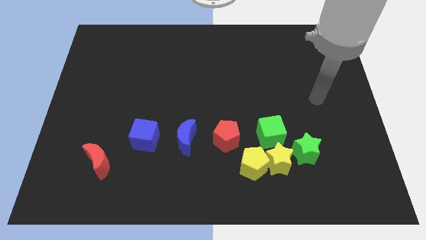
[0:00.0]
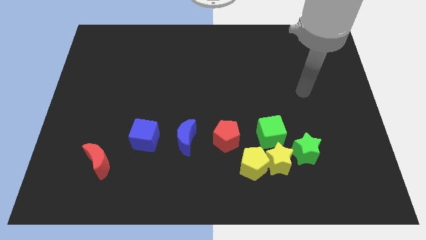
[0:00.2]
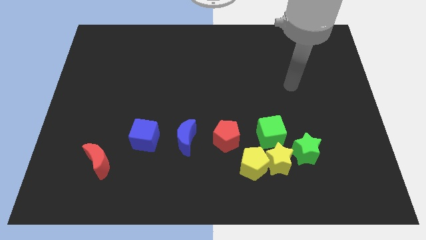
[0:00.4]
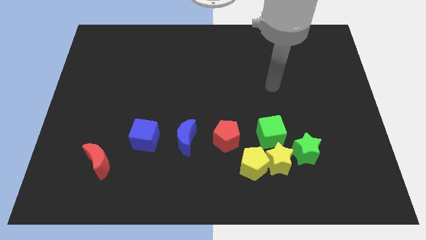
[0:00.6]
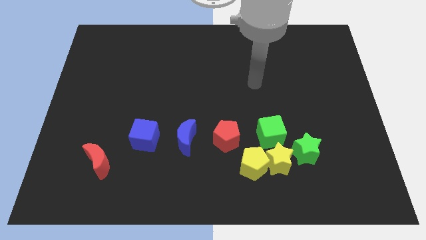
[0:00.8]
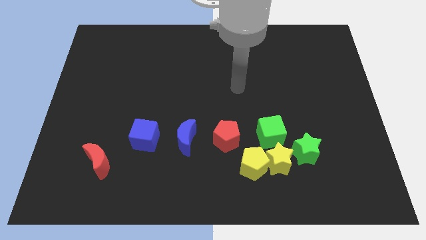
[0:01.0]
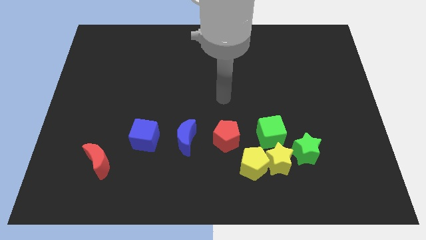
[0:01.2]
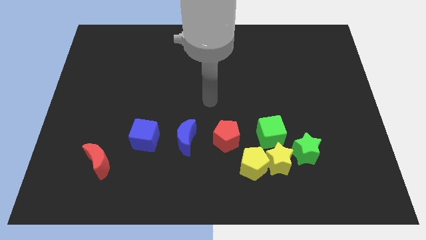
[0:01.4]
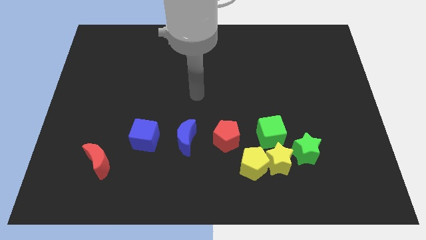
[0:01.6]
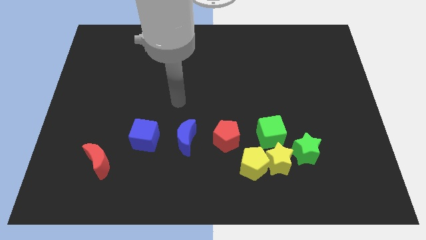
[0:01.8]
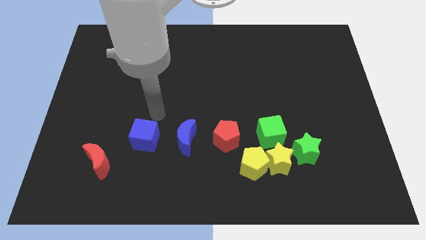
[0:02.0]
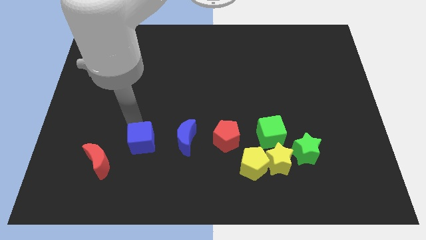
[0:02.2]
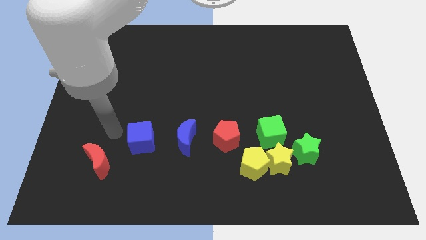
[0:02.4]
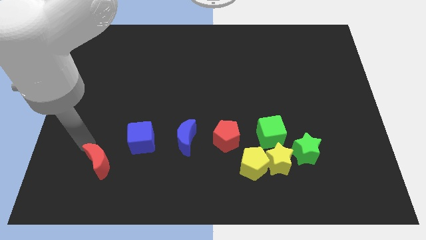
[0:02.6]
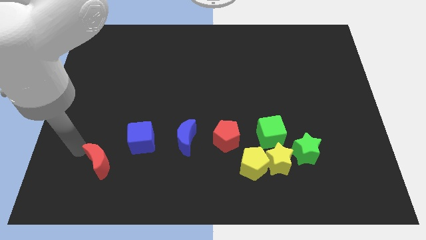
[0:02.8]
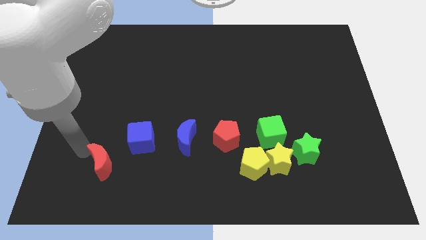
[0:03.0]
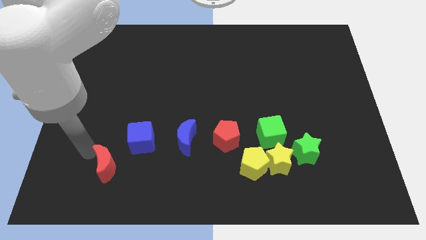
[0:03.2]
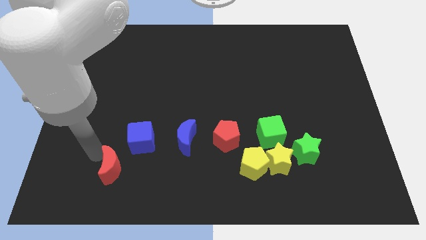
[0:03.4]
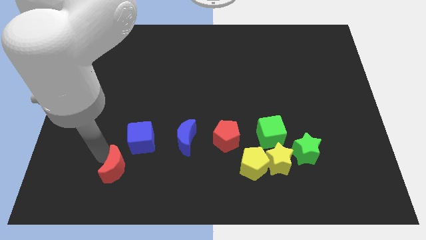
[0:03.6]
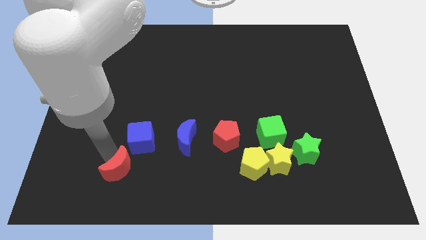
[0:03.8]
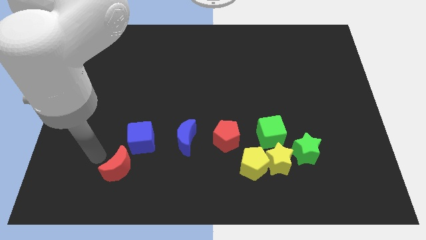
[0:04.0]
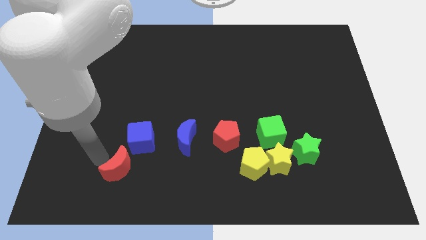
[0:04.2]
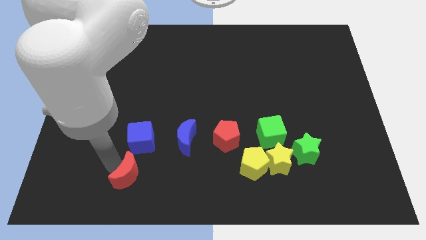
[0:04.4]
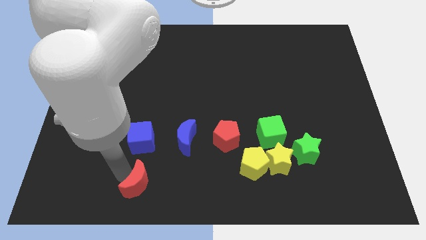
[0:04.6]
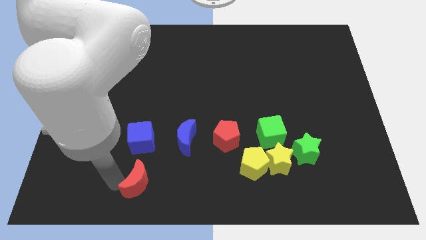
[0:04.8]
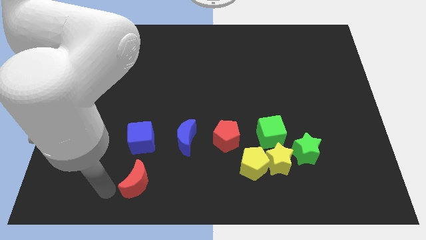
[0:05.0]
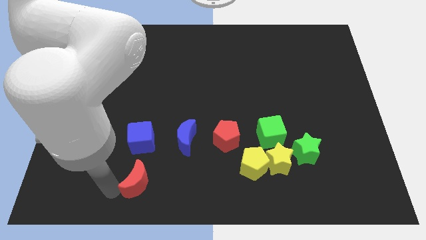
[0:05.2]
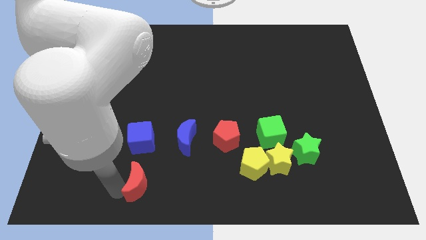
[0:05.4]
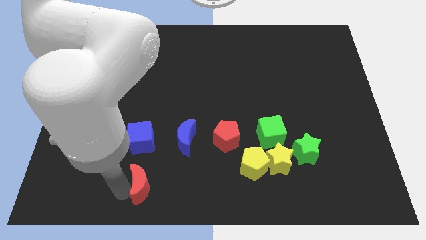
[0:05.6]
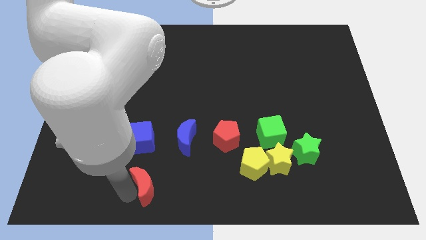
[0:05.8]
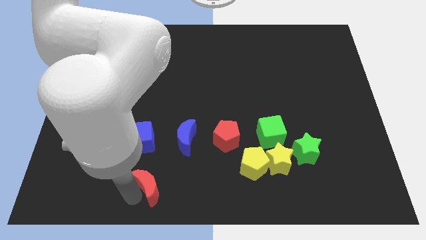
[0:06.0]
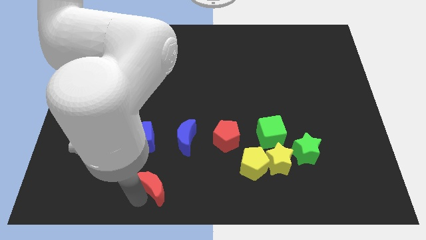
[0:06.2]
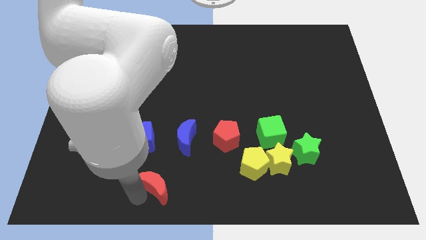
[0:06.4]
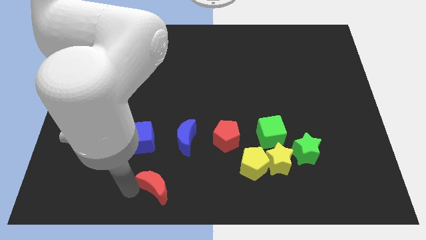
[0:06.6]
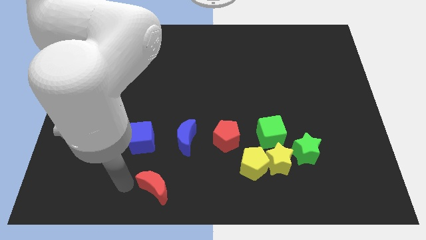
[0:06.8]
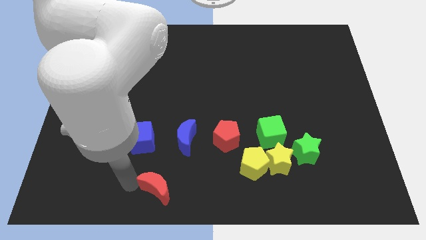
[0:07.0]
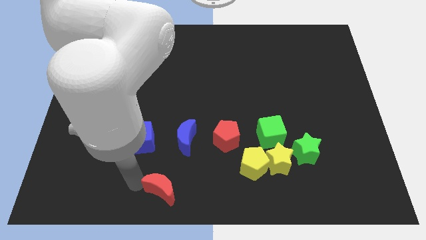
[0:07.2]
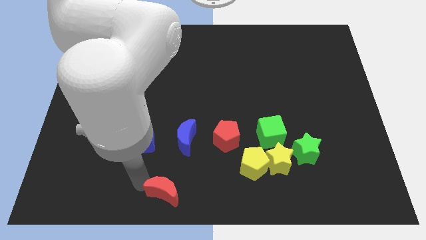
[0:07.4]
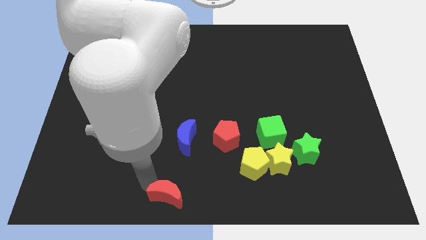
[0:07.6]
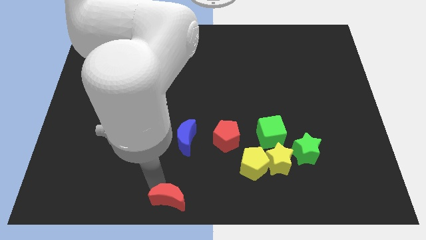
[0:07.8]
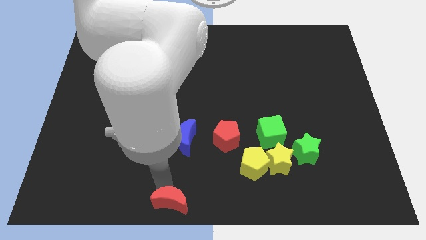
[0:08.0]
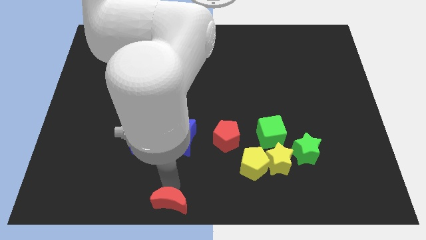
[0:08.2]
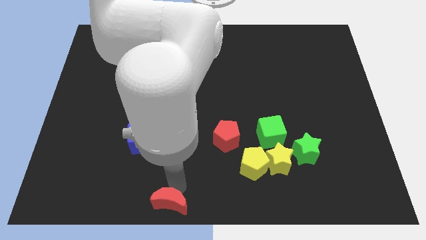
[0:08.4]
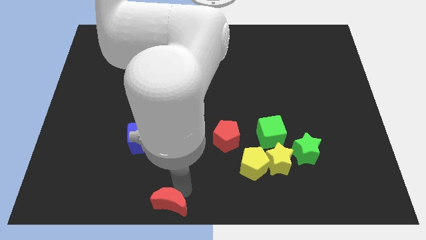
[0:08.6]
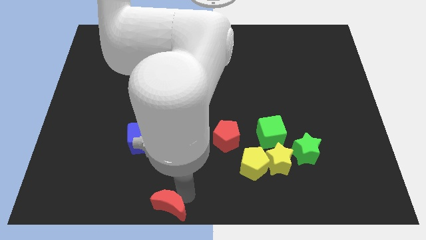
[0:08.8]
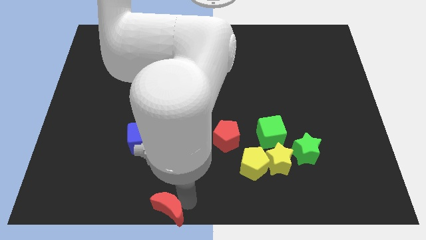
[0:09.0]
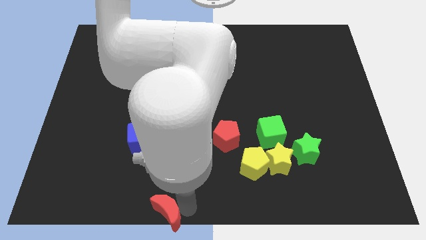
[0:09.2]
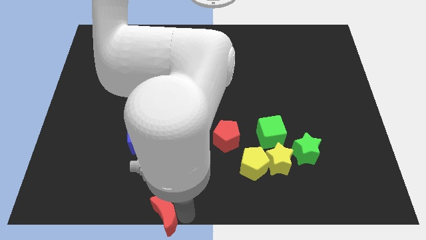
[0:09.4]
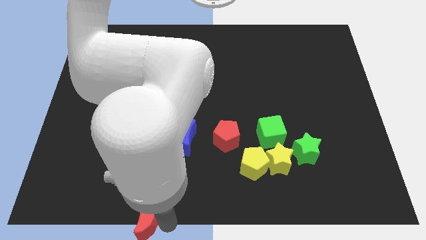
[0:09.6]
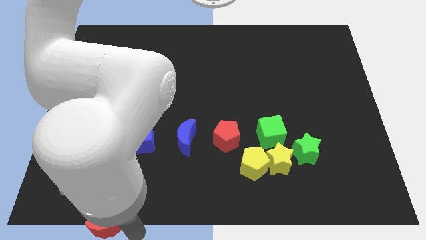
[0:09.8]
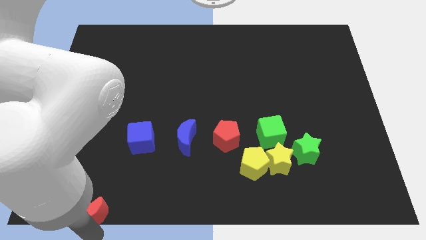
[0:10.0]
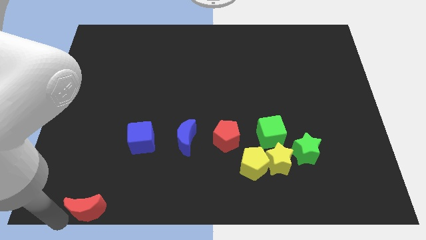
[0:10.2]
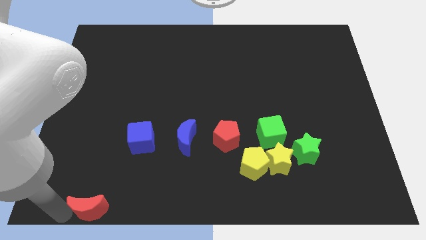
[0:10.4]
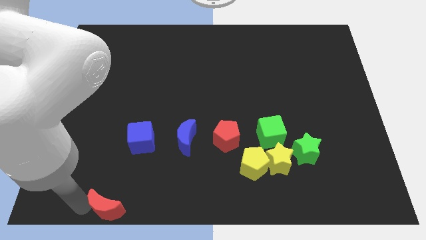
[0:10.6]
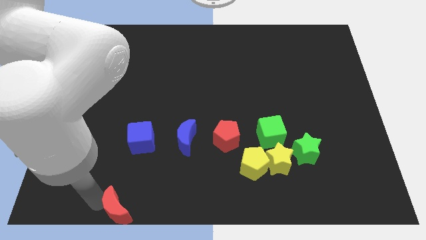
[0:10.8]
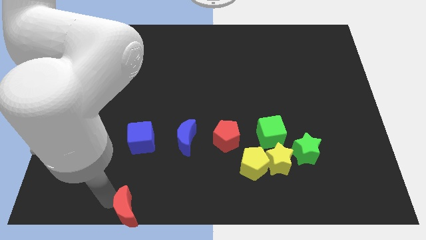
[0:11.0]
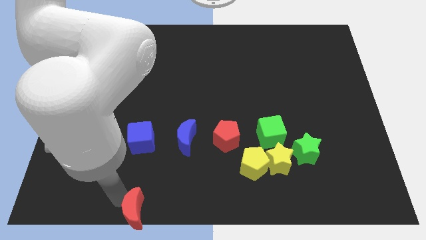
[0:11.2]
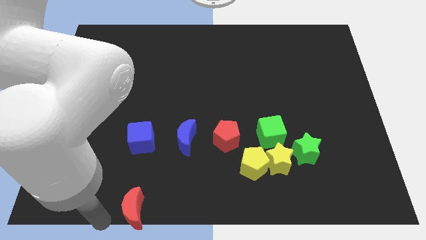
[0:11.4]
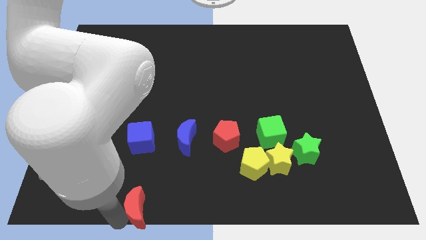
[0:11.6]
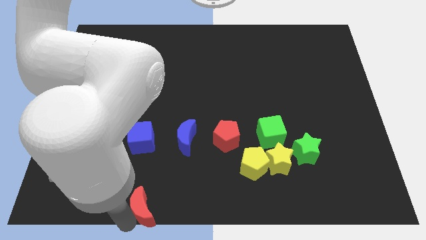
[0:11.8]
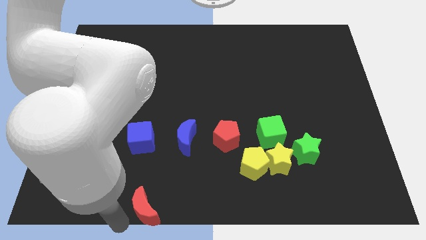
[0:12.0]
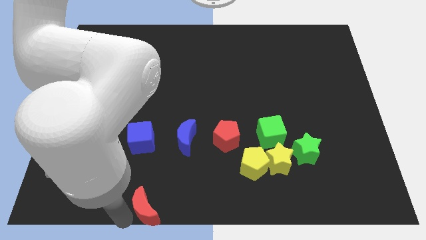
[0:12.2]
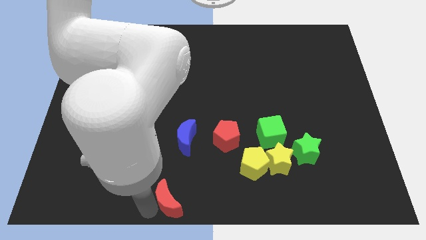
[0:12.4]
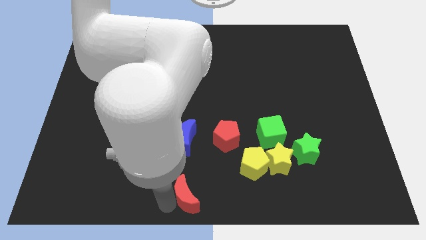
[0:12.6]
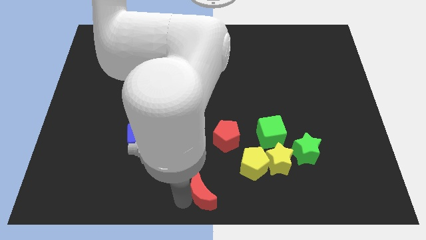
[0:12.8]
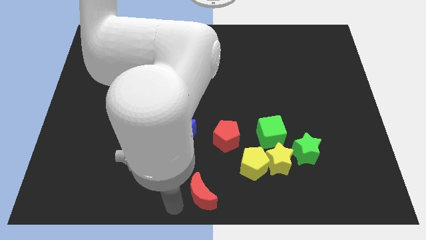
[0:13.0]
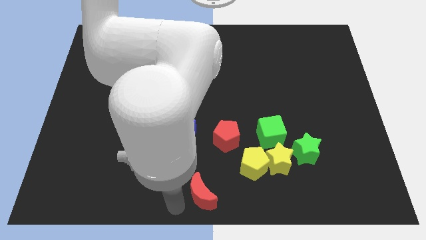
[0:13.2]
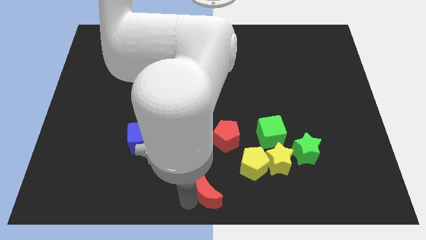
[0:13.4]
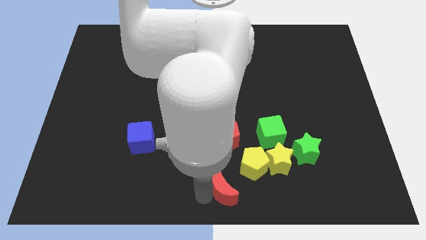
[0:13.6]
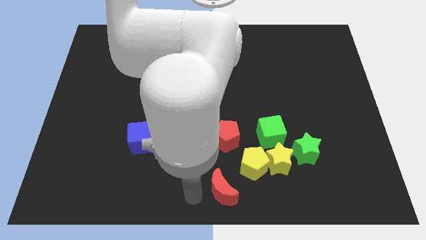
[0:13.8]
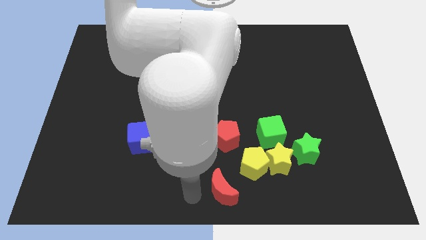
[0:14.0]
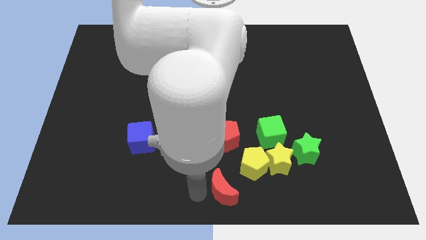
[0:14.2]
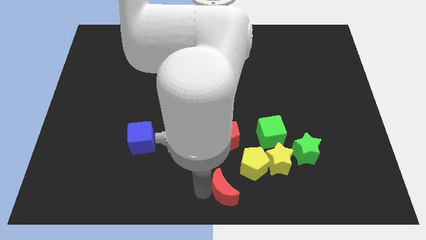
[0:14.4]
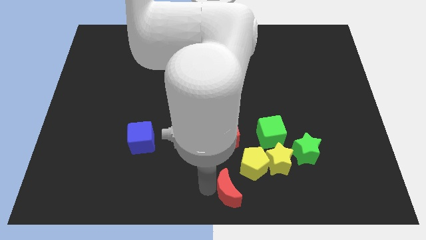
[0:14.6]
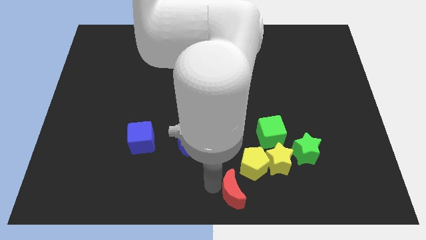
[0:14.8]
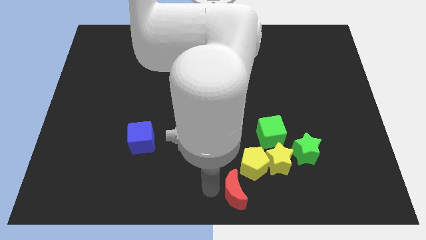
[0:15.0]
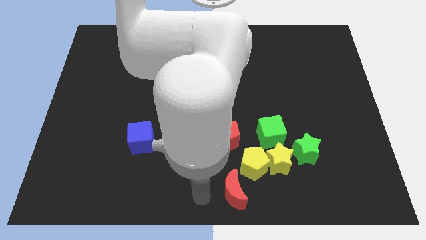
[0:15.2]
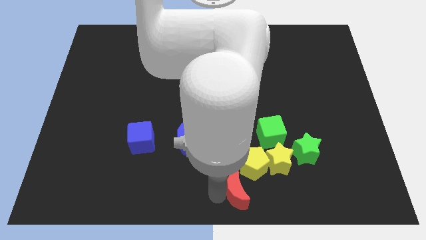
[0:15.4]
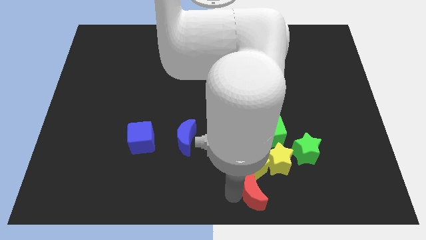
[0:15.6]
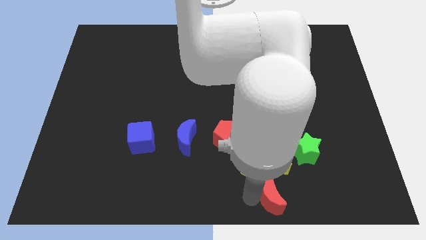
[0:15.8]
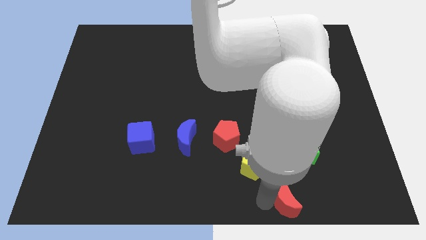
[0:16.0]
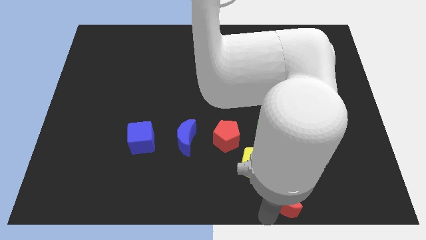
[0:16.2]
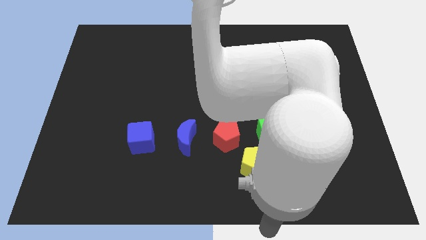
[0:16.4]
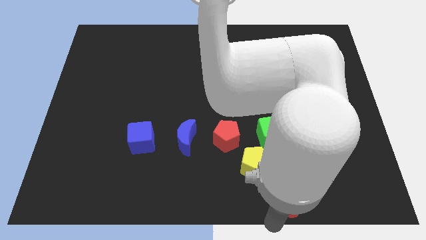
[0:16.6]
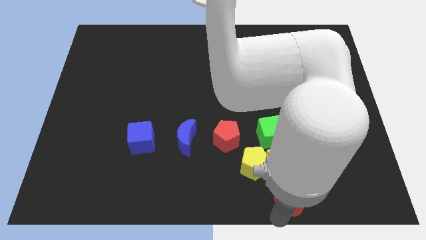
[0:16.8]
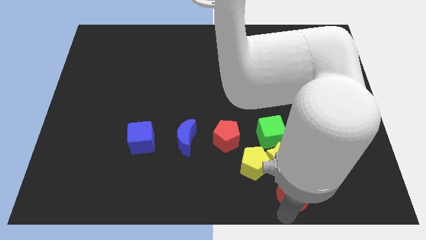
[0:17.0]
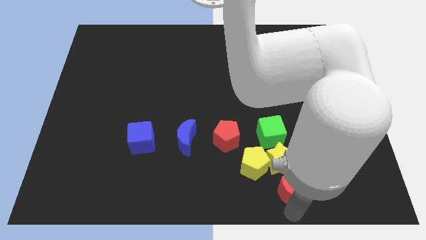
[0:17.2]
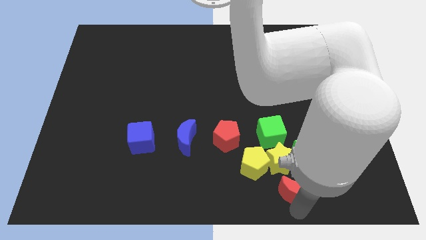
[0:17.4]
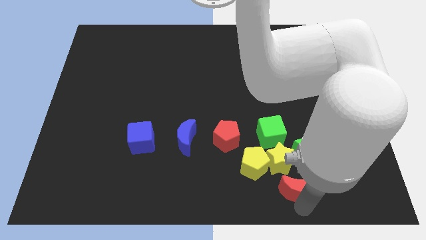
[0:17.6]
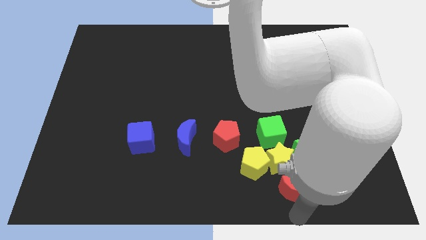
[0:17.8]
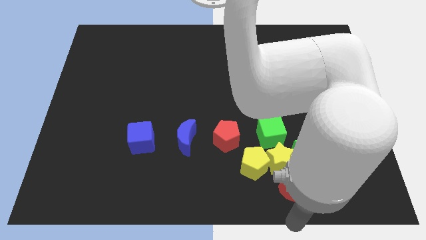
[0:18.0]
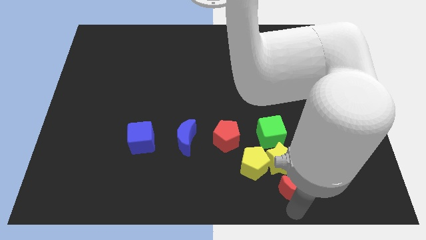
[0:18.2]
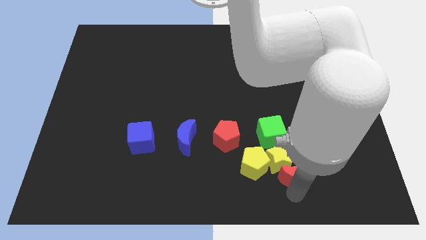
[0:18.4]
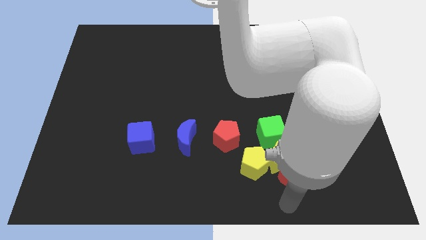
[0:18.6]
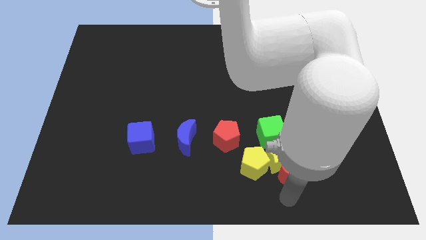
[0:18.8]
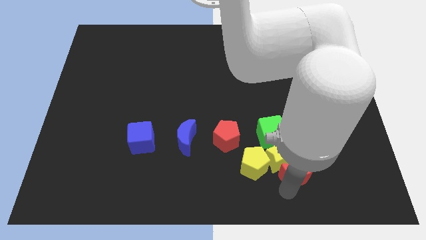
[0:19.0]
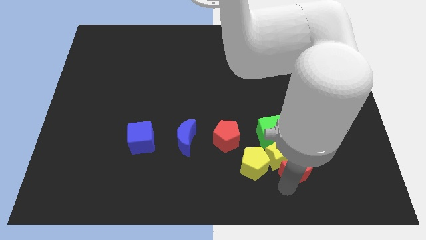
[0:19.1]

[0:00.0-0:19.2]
slide the red moon close to the green star
